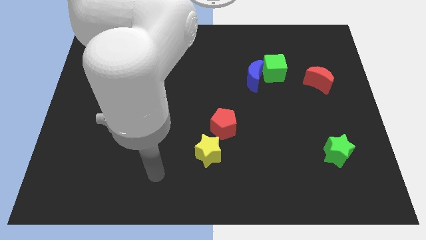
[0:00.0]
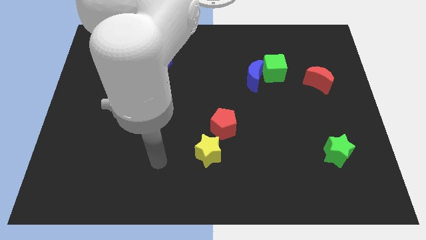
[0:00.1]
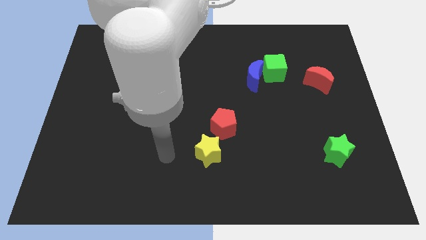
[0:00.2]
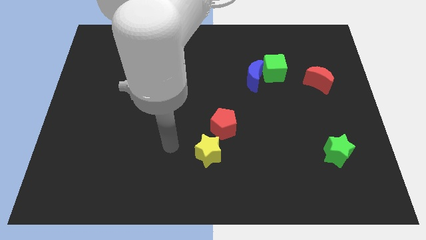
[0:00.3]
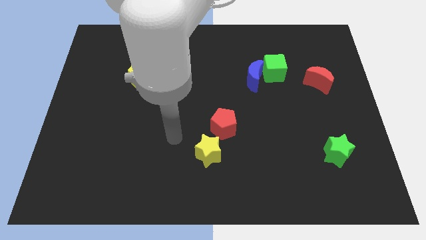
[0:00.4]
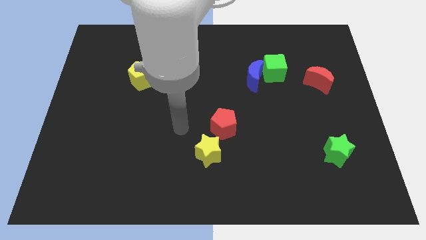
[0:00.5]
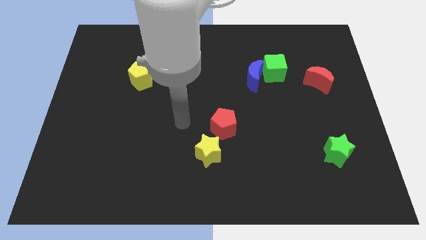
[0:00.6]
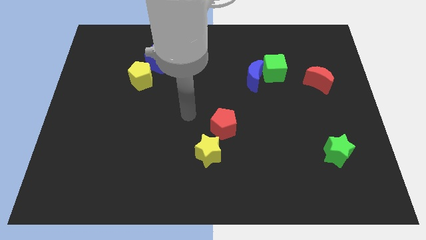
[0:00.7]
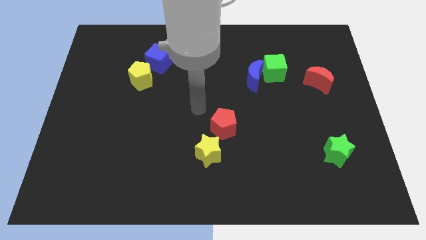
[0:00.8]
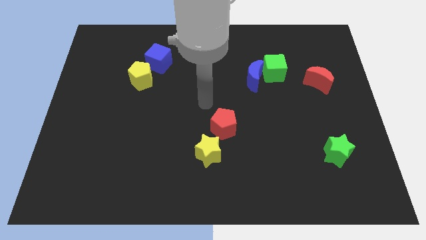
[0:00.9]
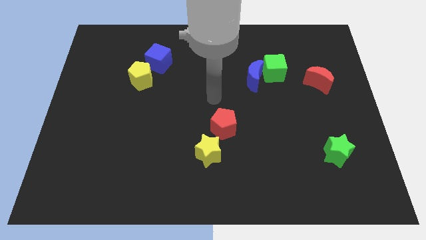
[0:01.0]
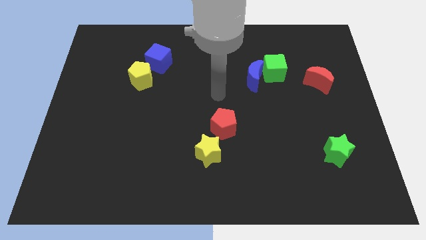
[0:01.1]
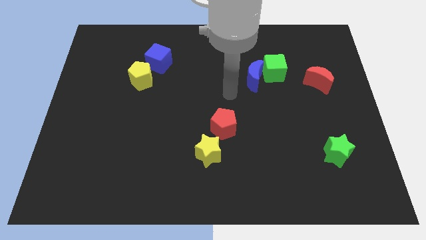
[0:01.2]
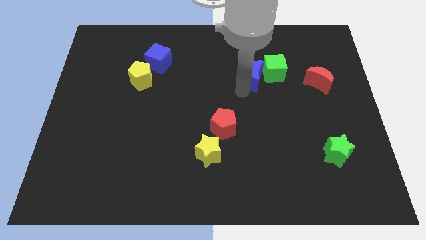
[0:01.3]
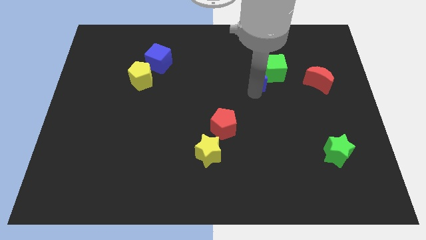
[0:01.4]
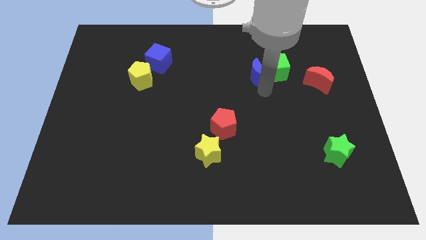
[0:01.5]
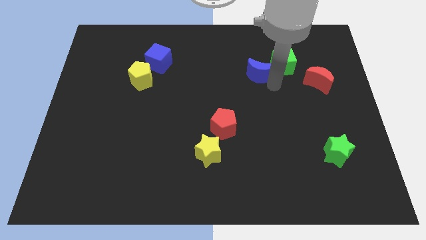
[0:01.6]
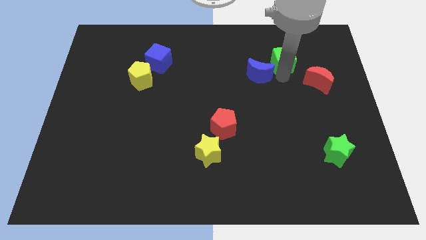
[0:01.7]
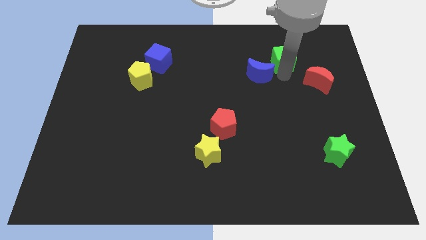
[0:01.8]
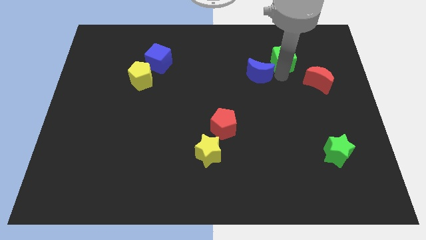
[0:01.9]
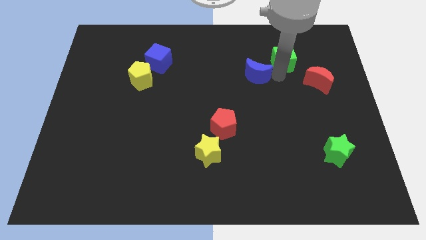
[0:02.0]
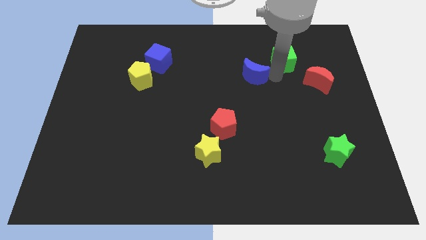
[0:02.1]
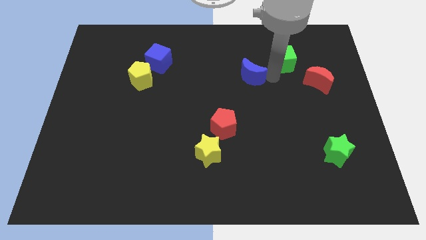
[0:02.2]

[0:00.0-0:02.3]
separate the blue moon from the green cube

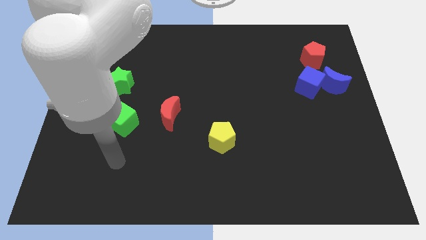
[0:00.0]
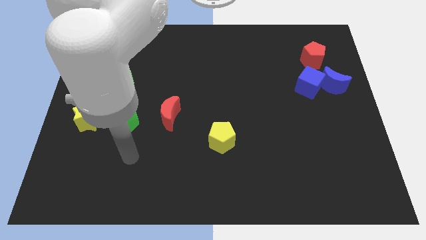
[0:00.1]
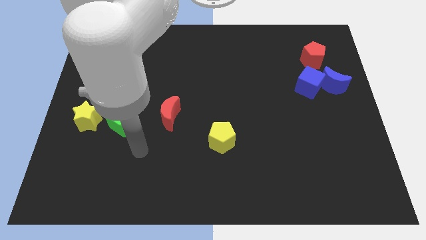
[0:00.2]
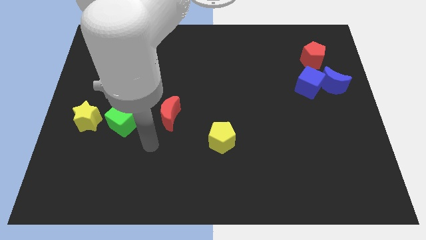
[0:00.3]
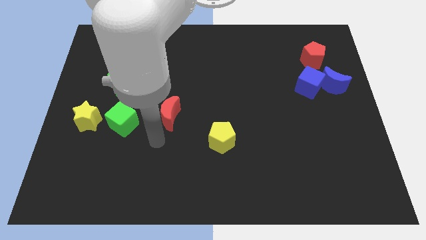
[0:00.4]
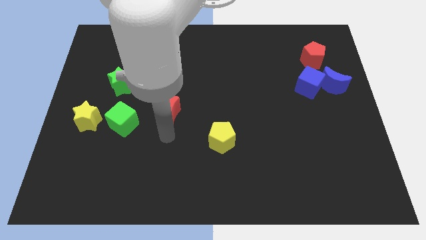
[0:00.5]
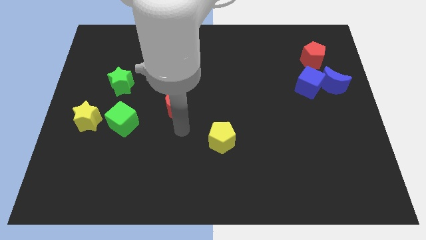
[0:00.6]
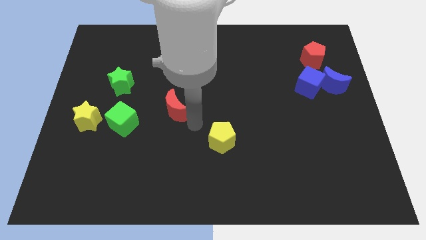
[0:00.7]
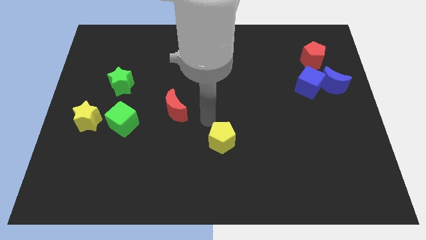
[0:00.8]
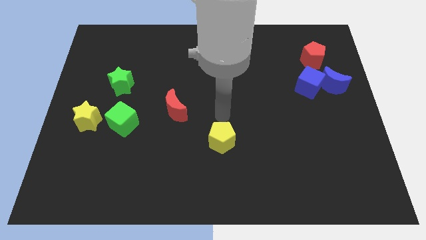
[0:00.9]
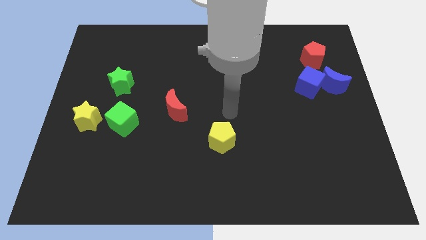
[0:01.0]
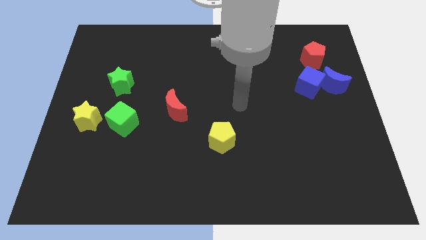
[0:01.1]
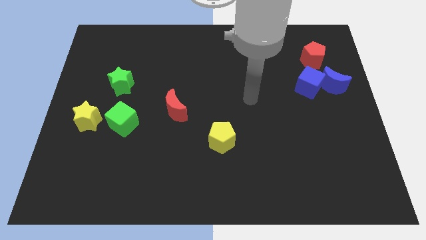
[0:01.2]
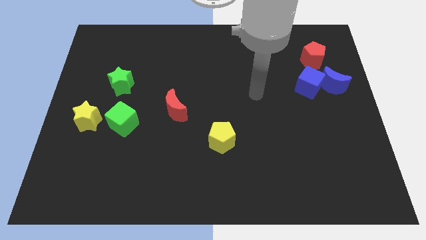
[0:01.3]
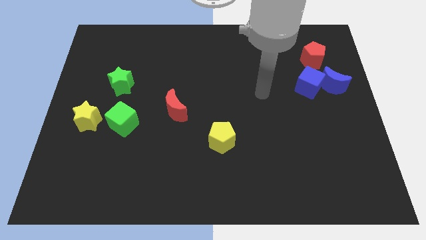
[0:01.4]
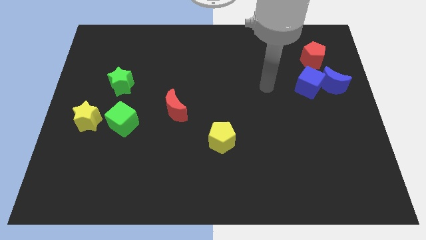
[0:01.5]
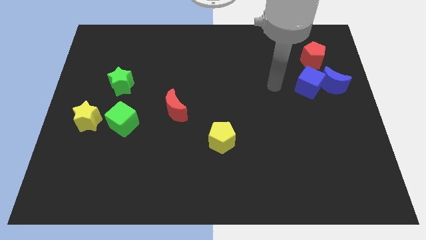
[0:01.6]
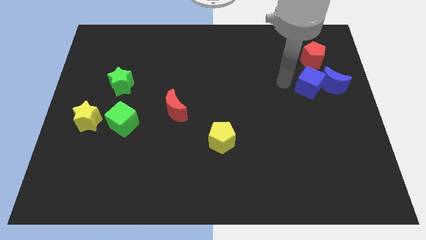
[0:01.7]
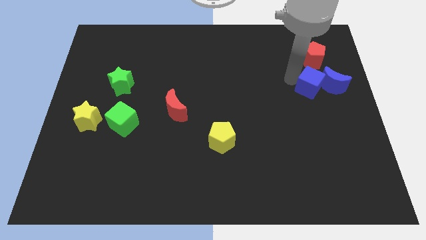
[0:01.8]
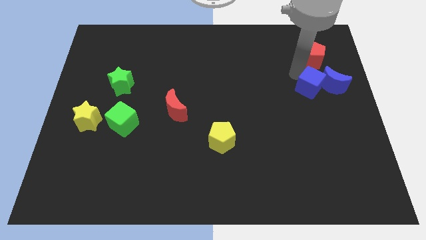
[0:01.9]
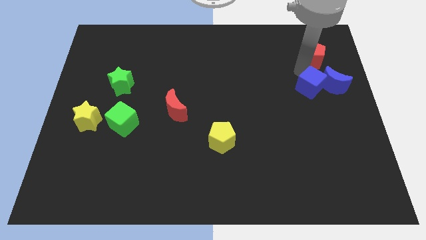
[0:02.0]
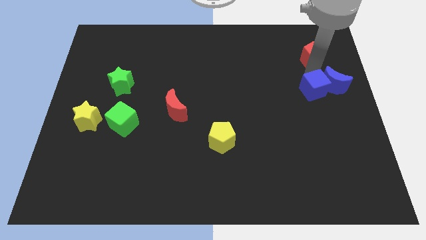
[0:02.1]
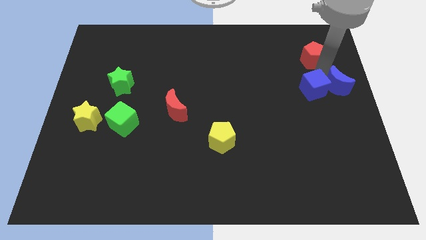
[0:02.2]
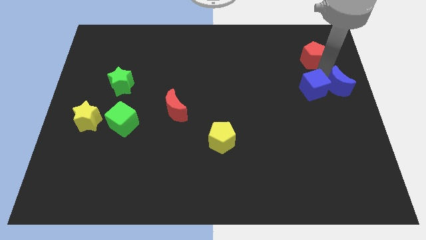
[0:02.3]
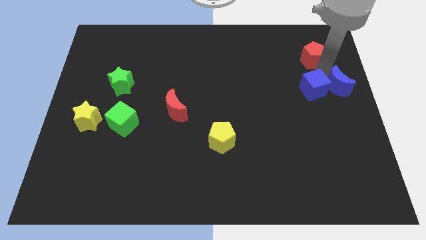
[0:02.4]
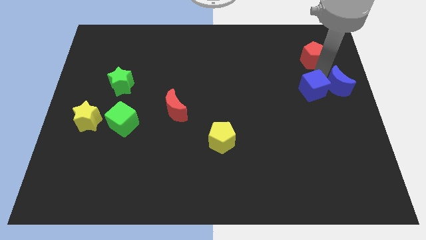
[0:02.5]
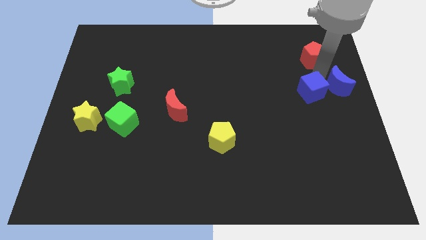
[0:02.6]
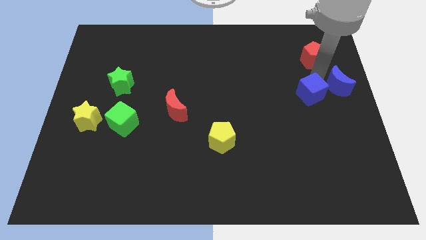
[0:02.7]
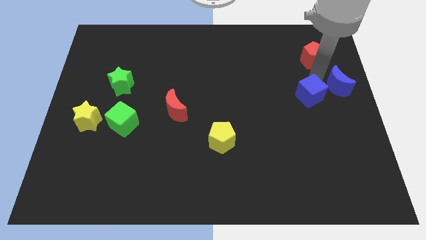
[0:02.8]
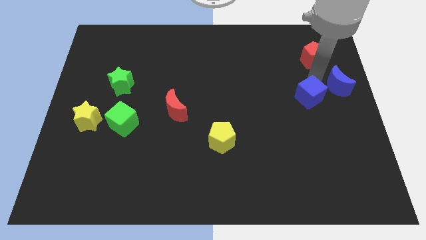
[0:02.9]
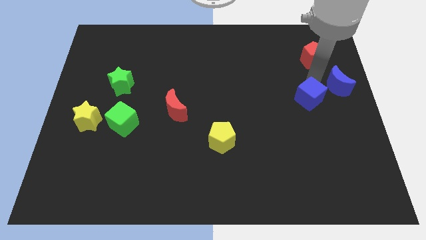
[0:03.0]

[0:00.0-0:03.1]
move the blue cube away from the blue moon and red pentagon

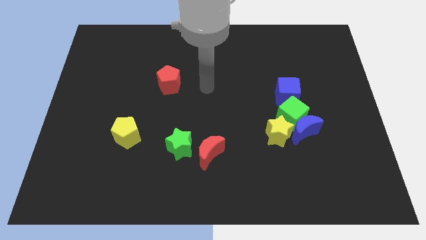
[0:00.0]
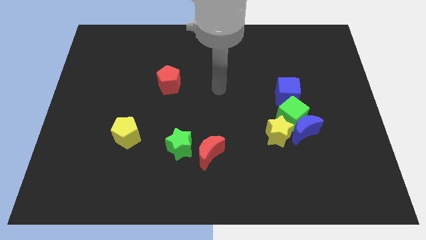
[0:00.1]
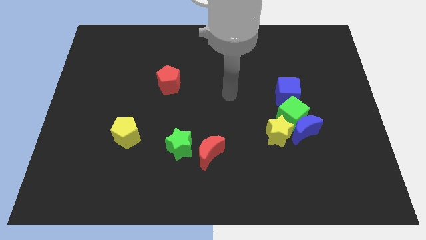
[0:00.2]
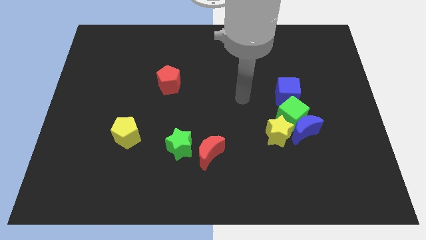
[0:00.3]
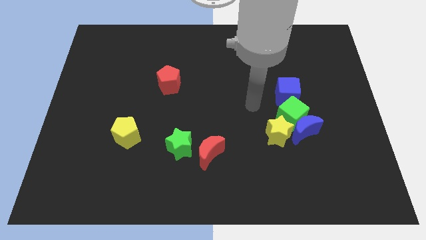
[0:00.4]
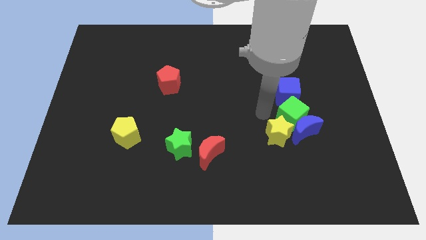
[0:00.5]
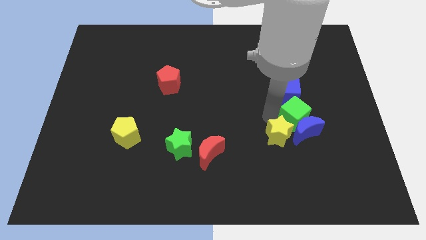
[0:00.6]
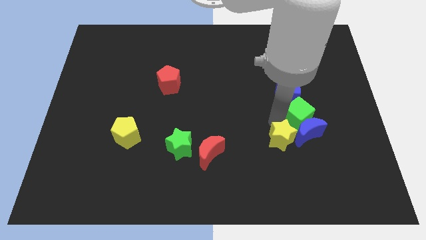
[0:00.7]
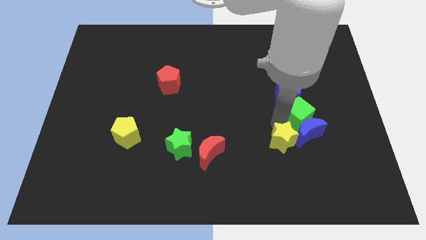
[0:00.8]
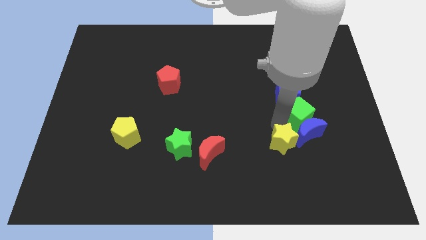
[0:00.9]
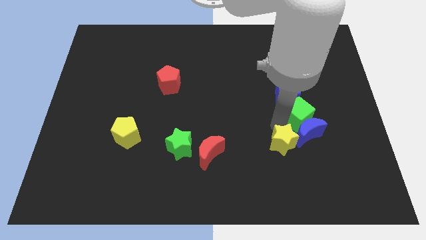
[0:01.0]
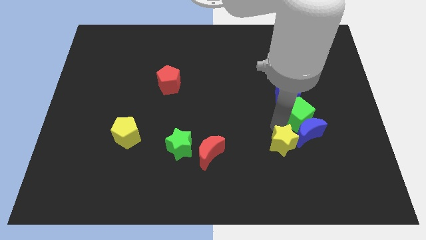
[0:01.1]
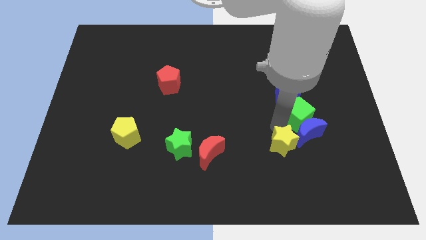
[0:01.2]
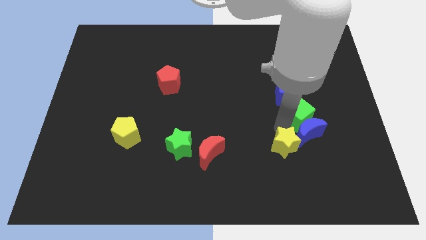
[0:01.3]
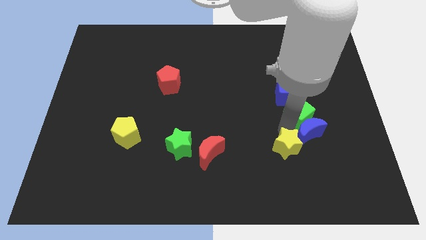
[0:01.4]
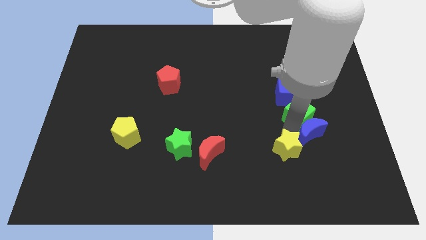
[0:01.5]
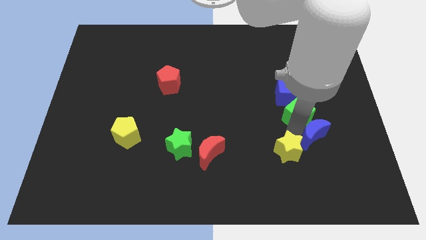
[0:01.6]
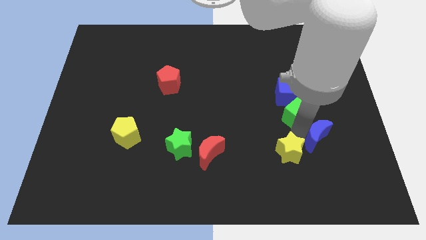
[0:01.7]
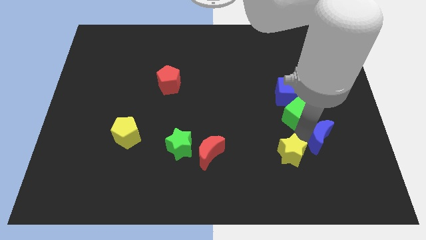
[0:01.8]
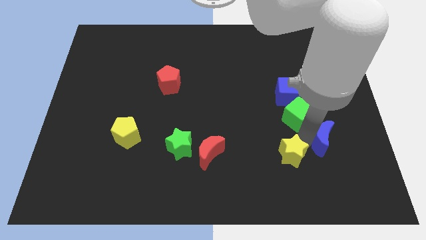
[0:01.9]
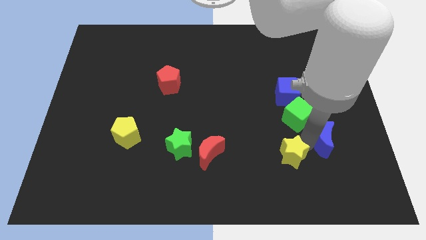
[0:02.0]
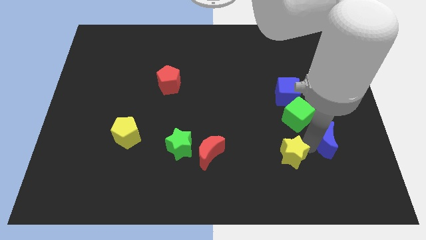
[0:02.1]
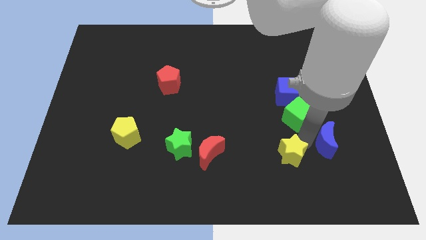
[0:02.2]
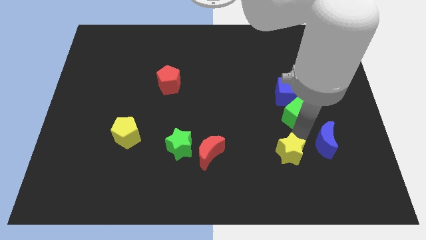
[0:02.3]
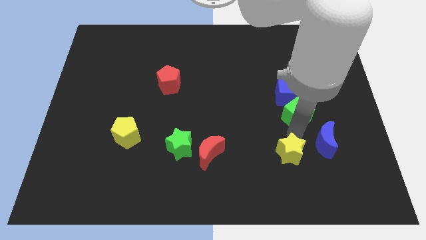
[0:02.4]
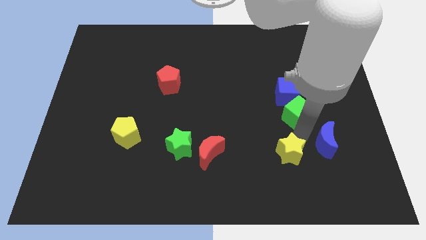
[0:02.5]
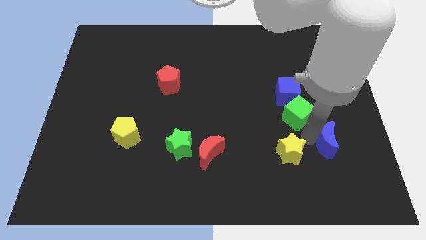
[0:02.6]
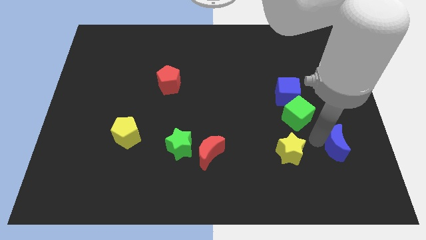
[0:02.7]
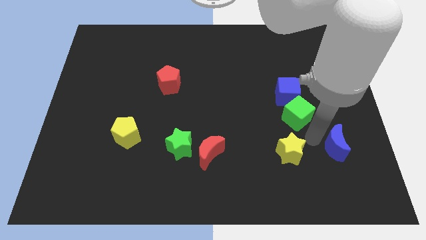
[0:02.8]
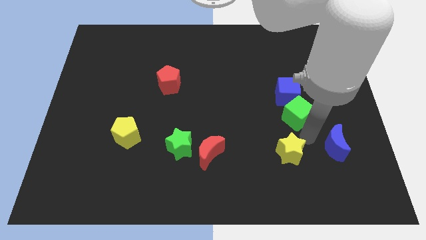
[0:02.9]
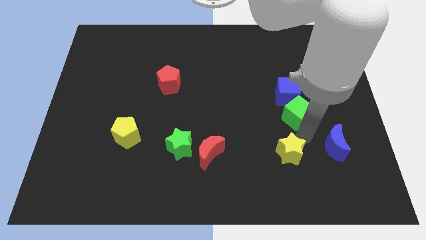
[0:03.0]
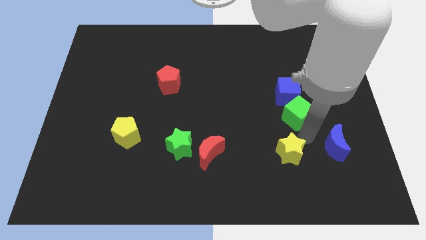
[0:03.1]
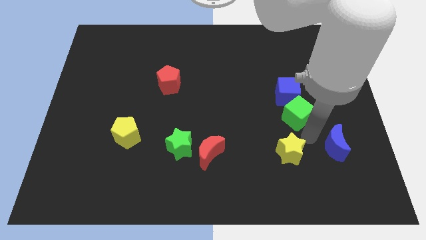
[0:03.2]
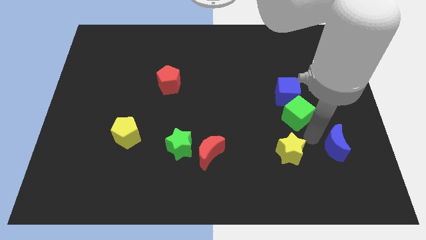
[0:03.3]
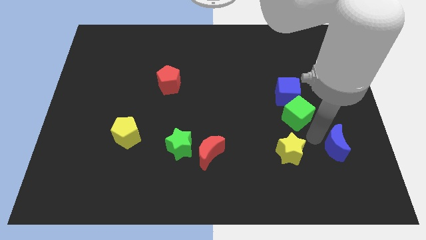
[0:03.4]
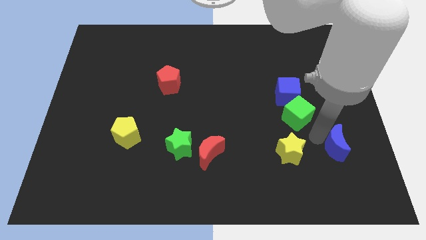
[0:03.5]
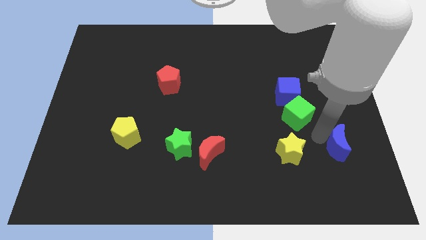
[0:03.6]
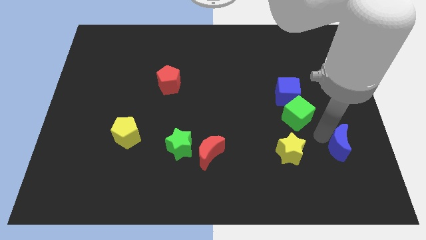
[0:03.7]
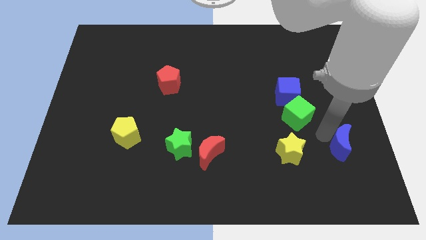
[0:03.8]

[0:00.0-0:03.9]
separate the blue moon from the green cube and yellow star
